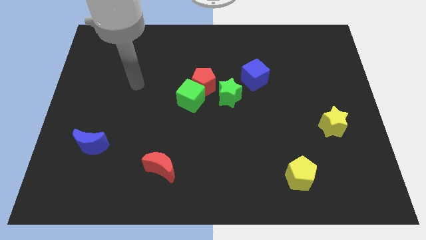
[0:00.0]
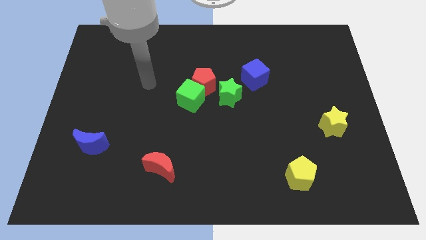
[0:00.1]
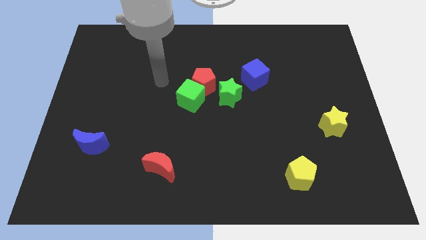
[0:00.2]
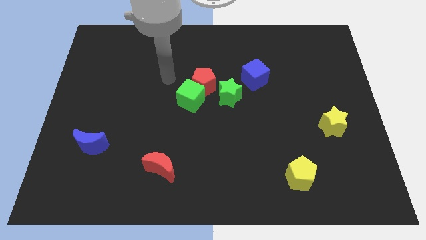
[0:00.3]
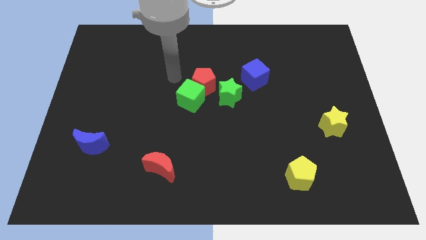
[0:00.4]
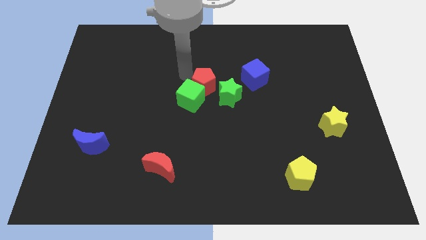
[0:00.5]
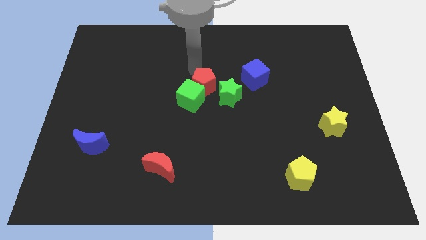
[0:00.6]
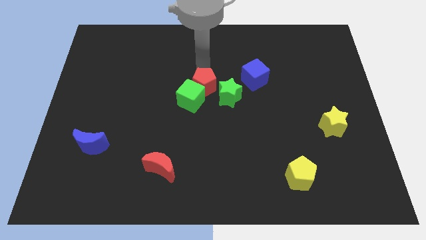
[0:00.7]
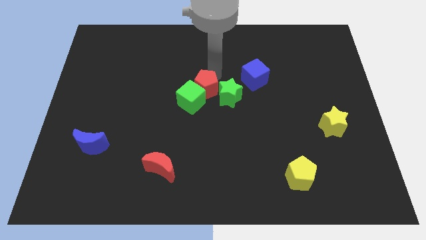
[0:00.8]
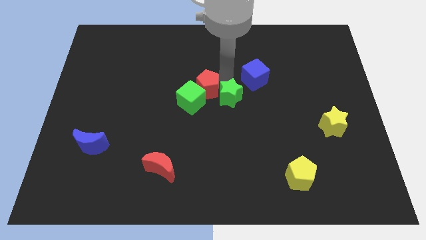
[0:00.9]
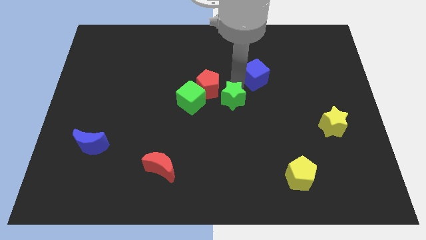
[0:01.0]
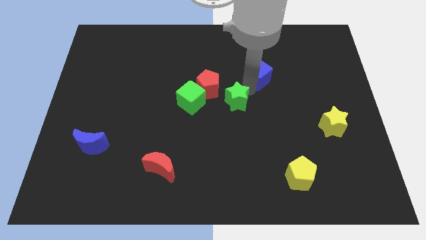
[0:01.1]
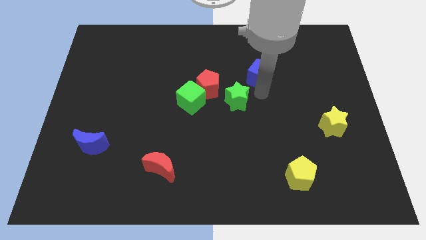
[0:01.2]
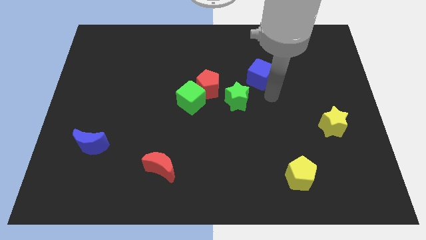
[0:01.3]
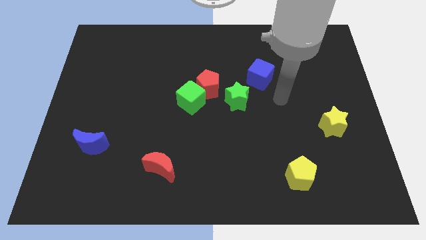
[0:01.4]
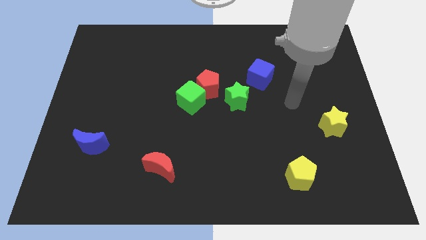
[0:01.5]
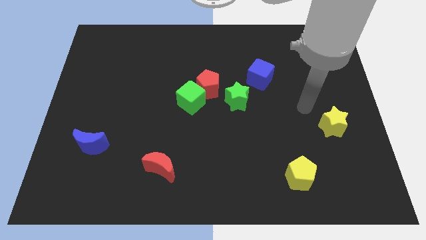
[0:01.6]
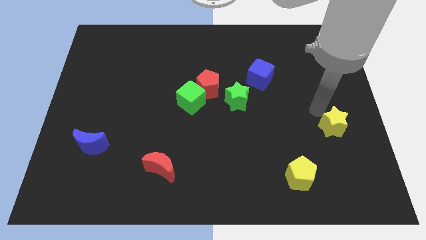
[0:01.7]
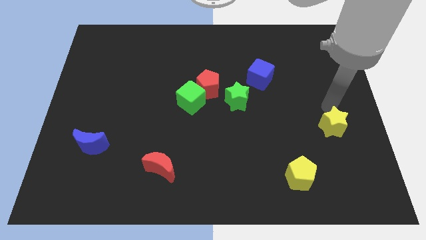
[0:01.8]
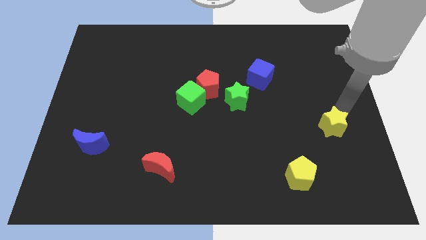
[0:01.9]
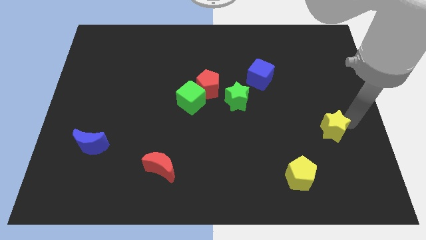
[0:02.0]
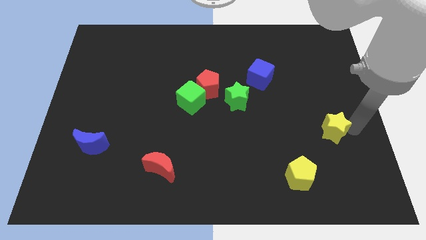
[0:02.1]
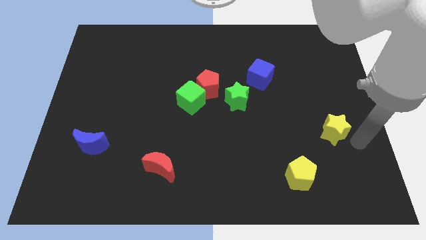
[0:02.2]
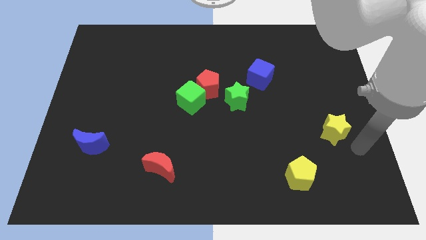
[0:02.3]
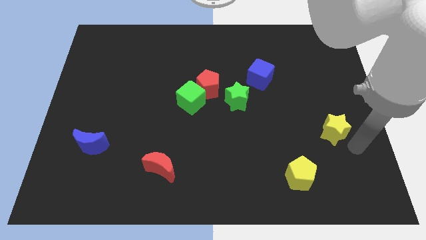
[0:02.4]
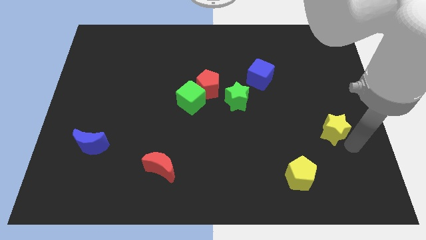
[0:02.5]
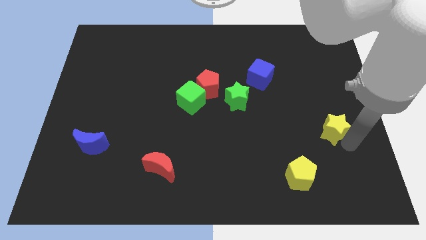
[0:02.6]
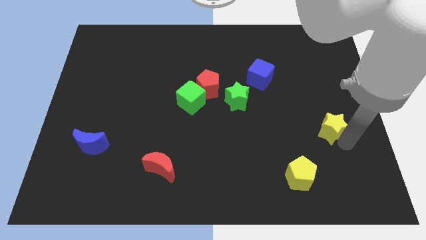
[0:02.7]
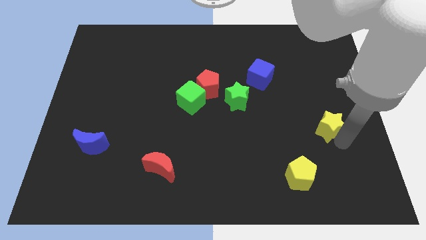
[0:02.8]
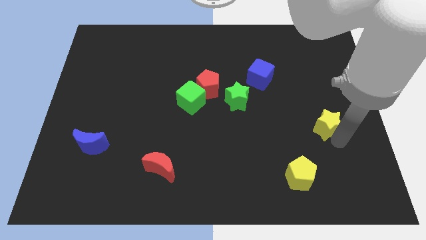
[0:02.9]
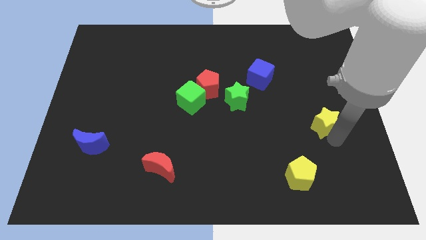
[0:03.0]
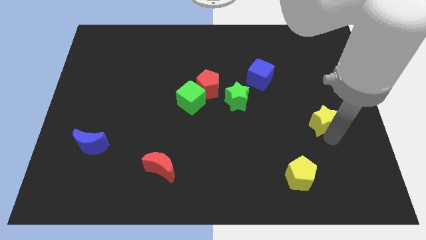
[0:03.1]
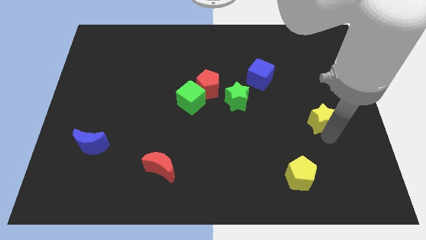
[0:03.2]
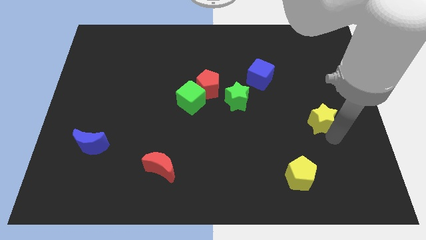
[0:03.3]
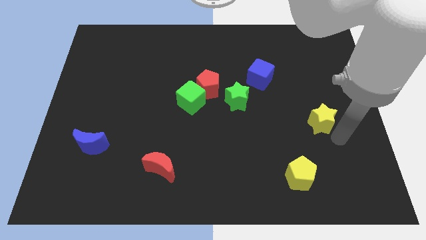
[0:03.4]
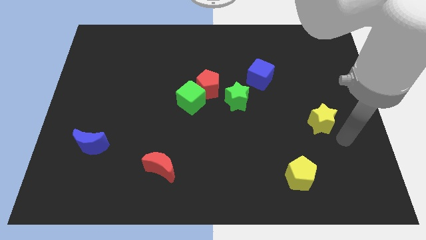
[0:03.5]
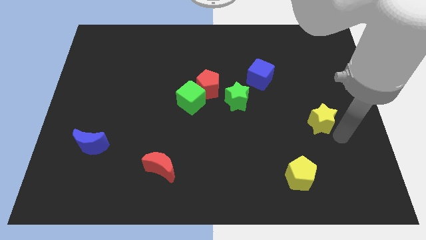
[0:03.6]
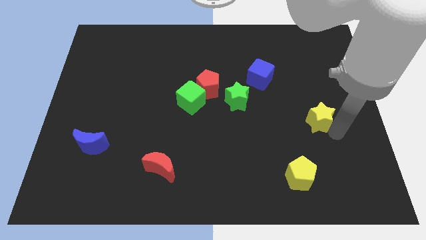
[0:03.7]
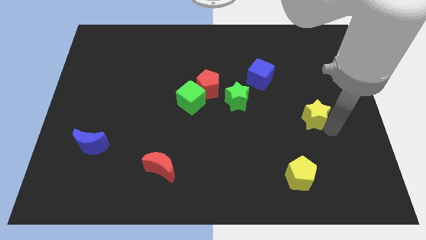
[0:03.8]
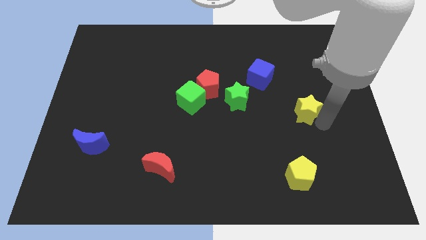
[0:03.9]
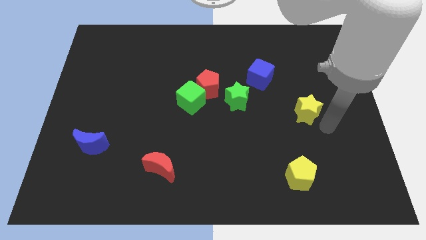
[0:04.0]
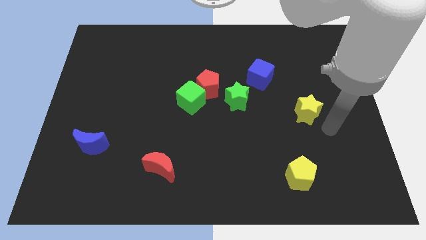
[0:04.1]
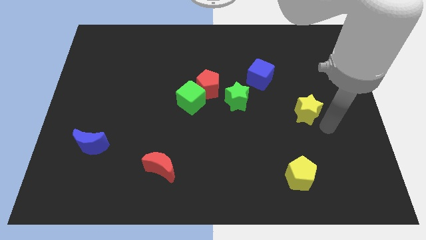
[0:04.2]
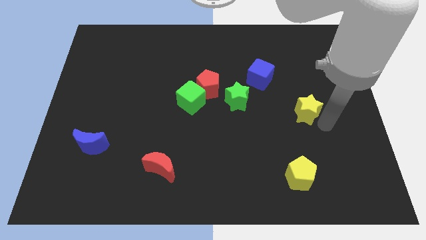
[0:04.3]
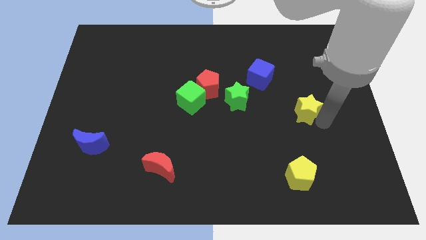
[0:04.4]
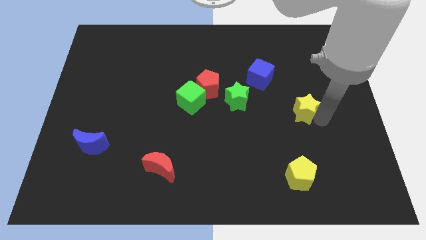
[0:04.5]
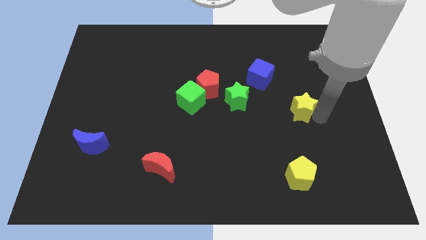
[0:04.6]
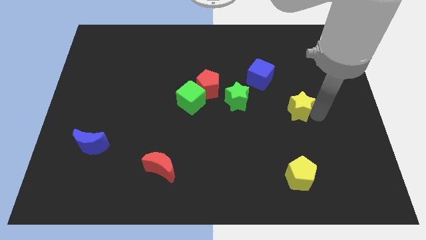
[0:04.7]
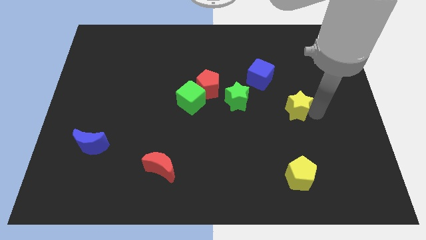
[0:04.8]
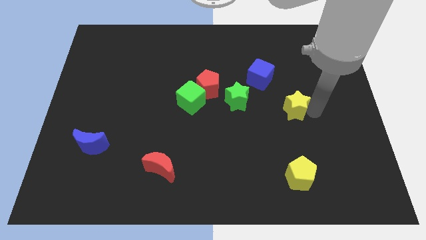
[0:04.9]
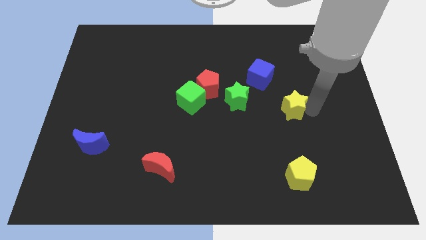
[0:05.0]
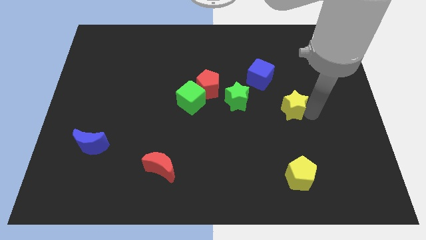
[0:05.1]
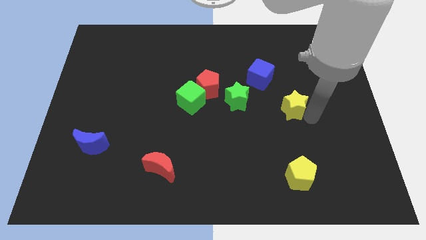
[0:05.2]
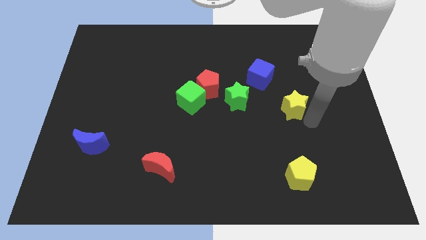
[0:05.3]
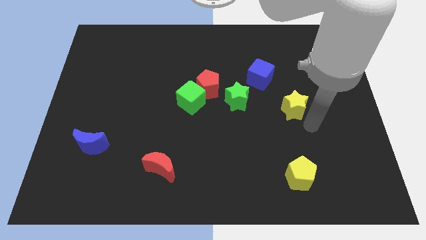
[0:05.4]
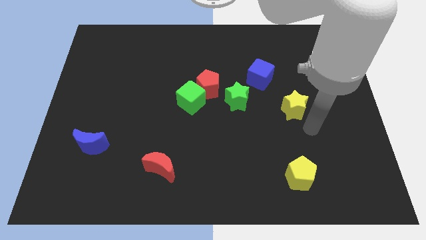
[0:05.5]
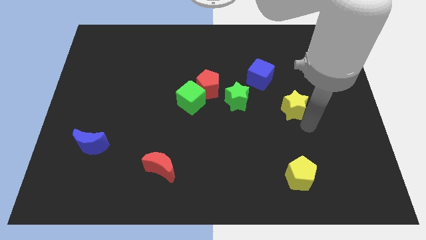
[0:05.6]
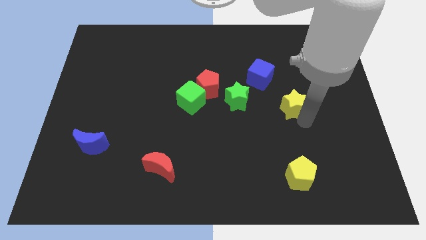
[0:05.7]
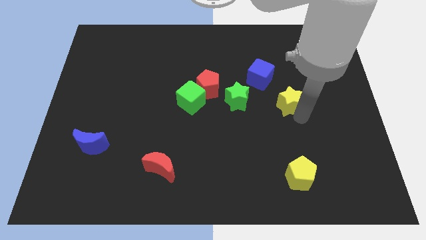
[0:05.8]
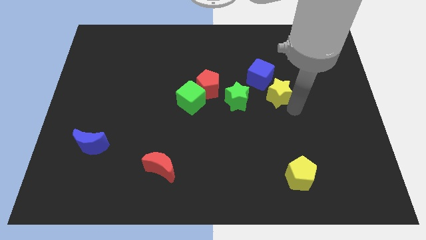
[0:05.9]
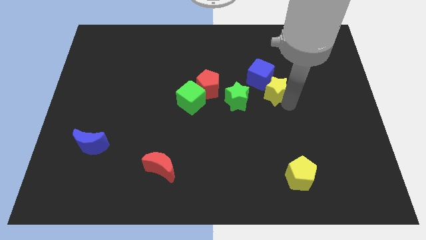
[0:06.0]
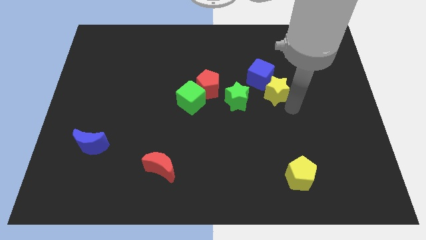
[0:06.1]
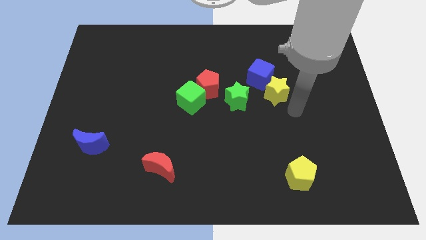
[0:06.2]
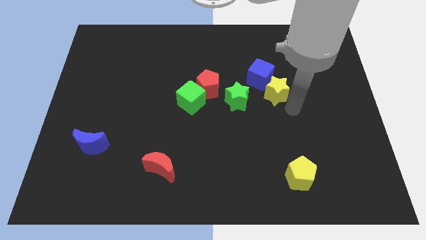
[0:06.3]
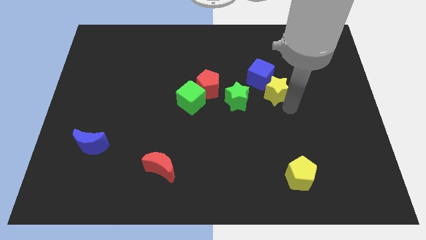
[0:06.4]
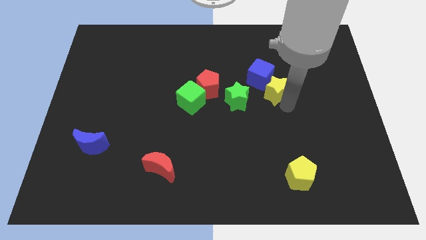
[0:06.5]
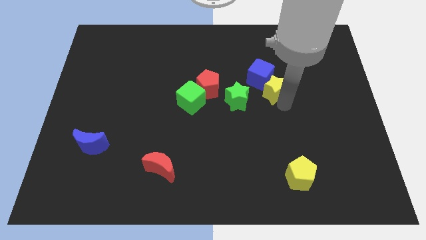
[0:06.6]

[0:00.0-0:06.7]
put the yellow star next to the blue cube

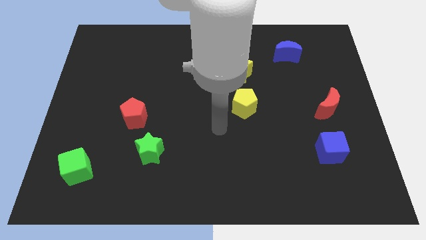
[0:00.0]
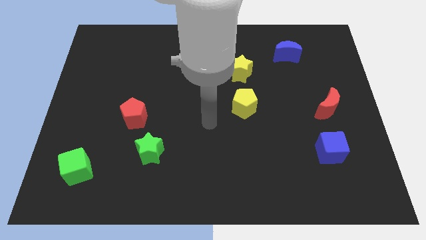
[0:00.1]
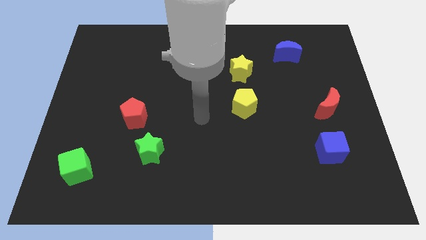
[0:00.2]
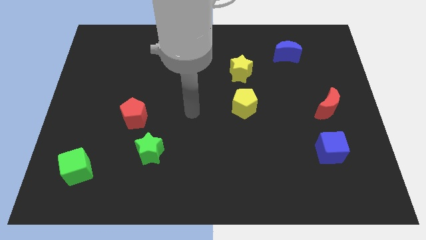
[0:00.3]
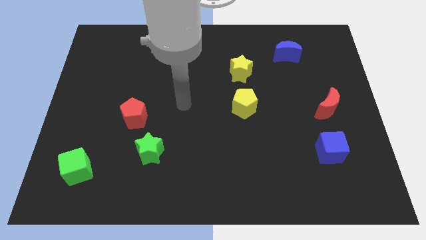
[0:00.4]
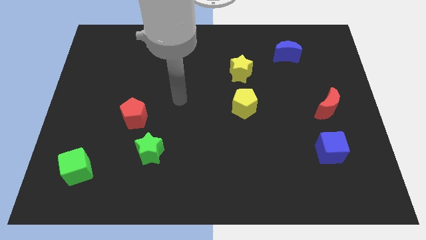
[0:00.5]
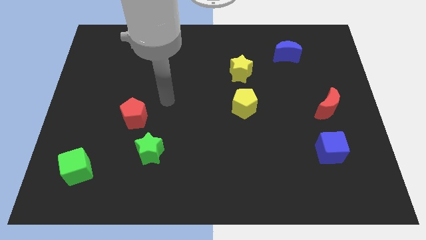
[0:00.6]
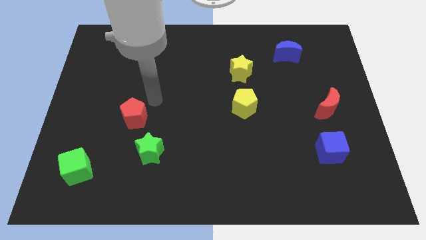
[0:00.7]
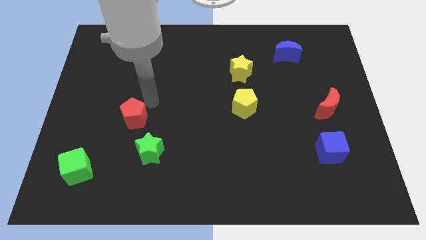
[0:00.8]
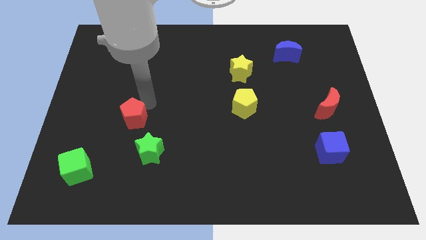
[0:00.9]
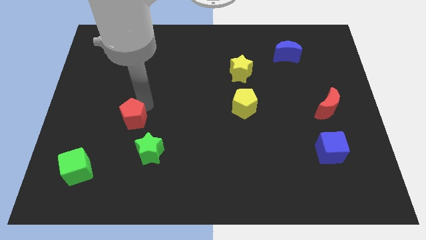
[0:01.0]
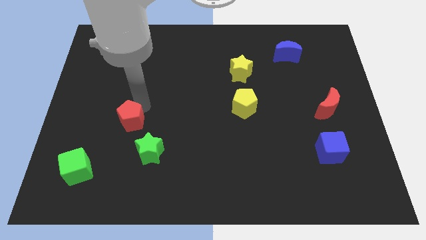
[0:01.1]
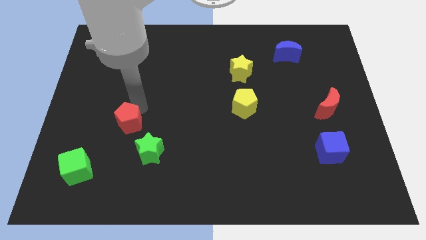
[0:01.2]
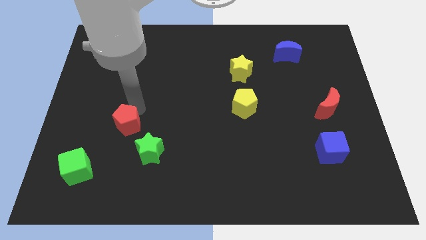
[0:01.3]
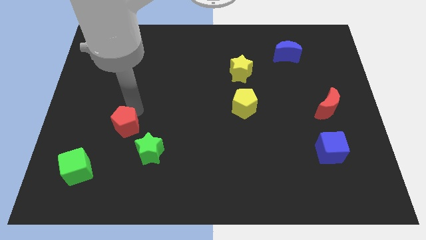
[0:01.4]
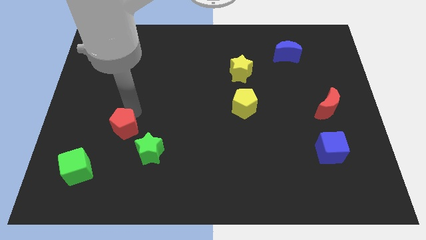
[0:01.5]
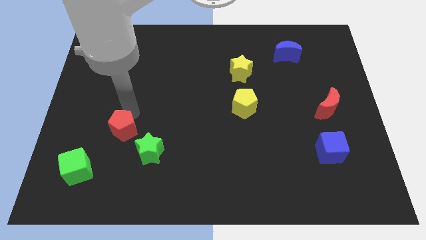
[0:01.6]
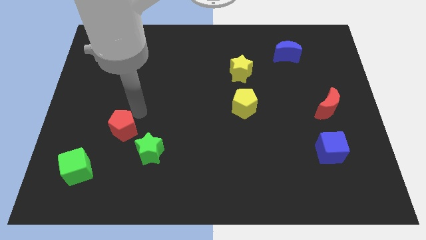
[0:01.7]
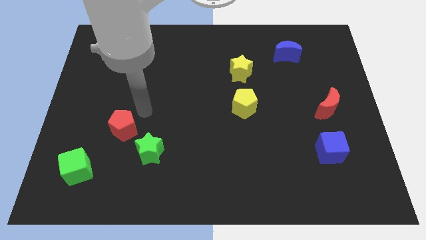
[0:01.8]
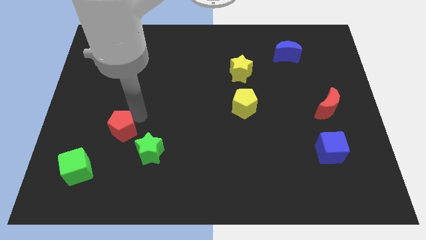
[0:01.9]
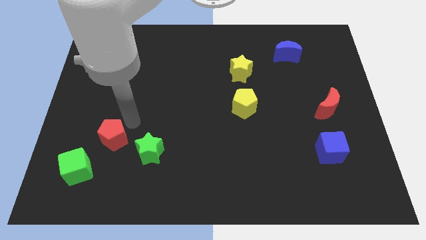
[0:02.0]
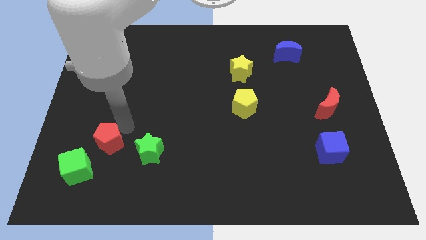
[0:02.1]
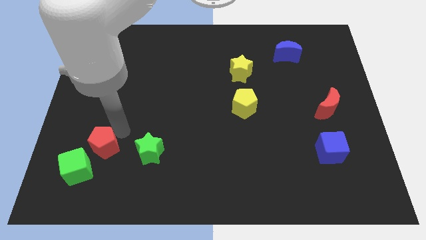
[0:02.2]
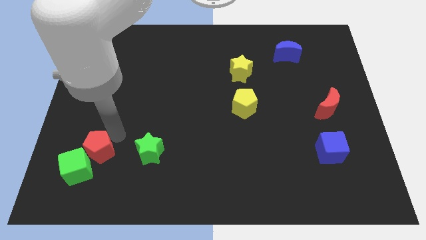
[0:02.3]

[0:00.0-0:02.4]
slide the red pentagon next to the green cube
